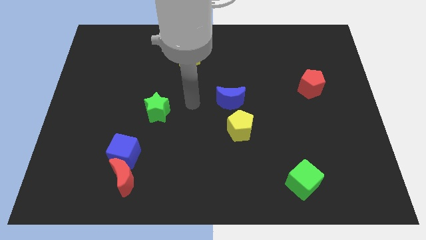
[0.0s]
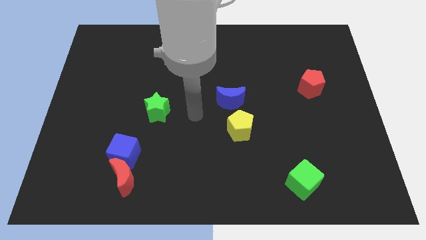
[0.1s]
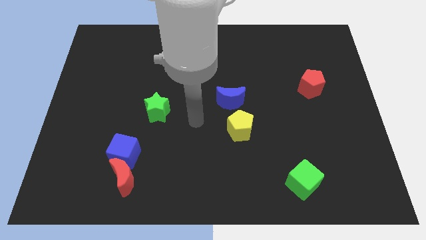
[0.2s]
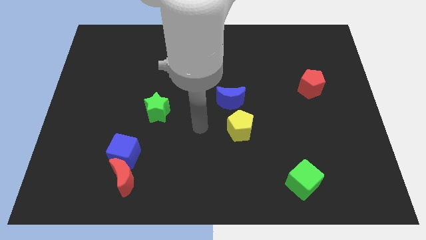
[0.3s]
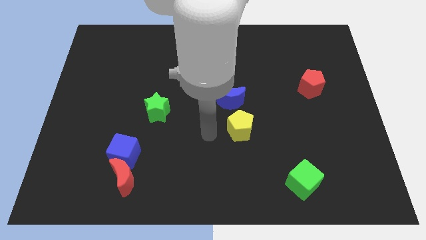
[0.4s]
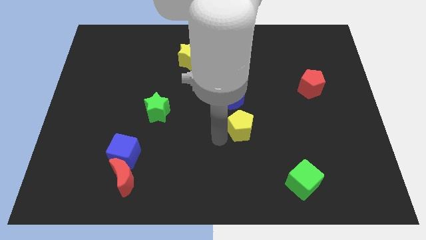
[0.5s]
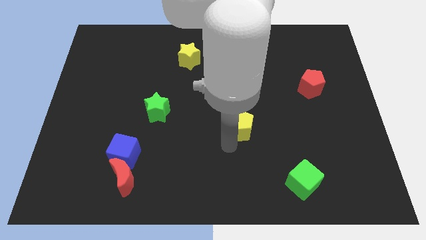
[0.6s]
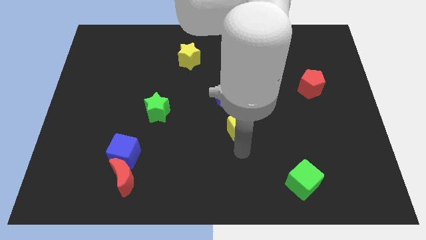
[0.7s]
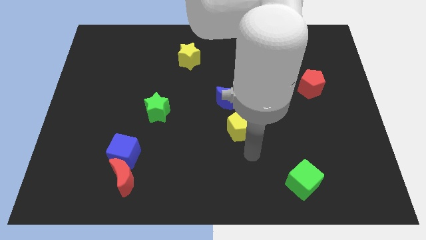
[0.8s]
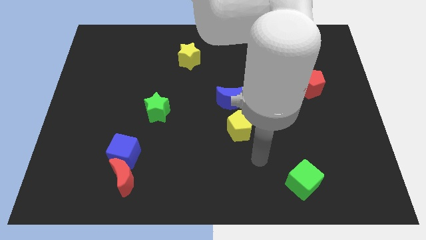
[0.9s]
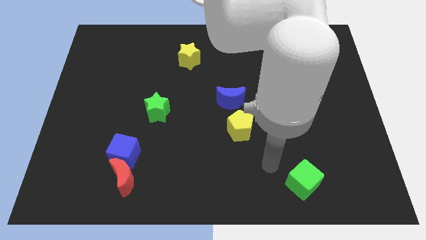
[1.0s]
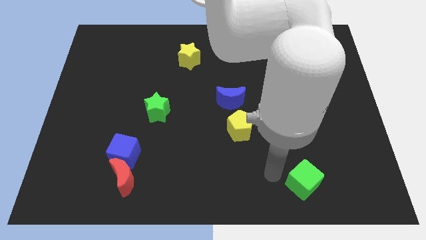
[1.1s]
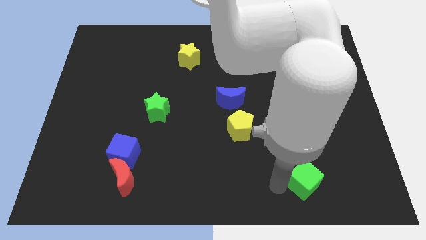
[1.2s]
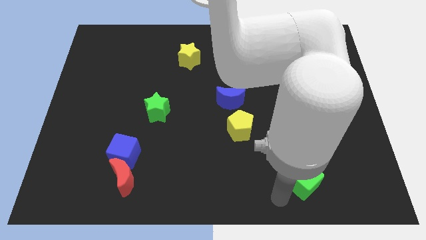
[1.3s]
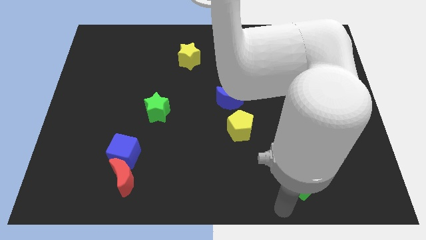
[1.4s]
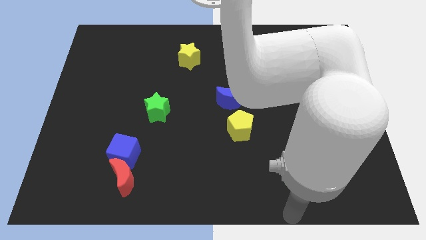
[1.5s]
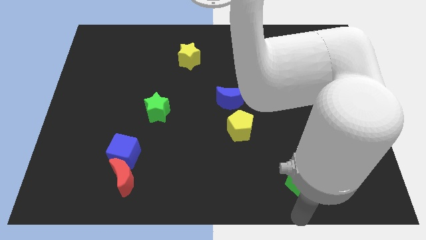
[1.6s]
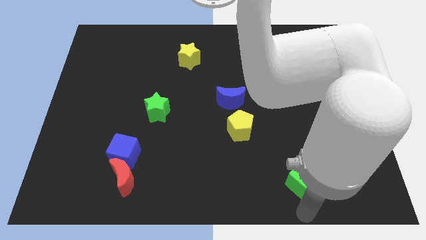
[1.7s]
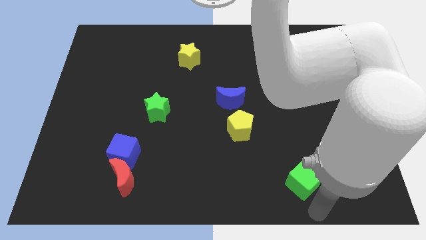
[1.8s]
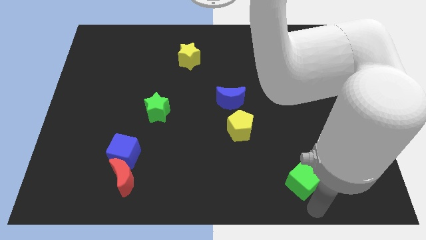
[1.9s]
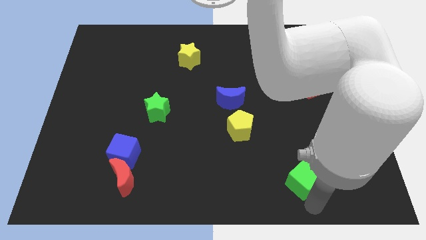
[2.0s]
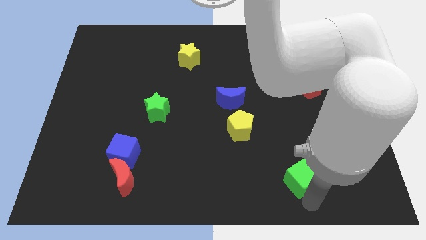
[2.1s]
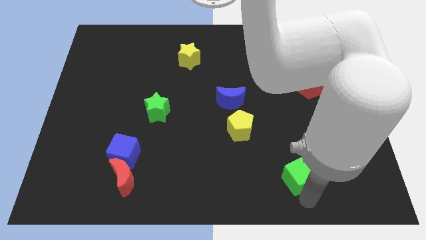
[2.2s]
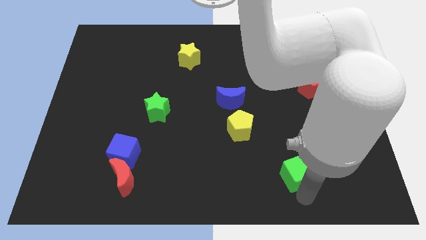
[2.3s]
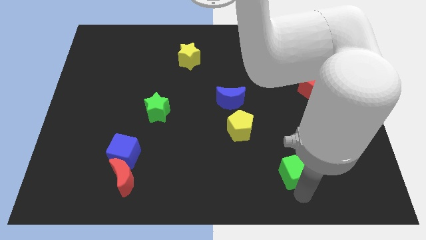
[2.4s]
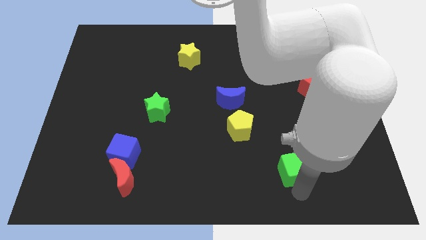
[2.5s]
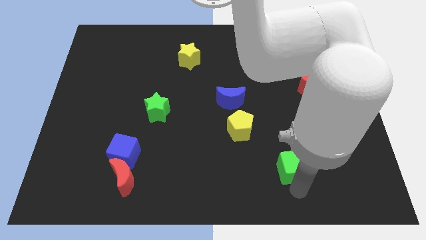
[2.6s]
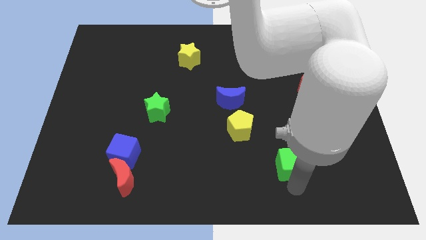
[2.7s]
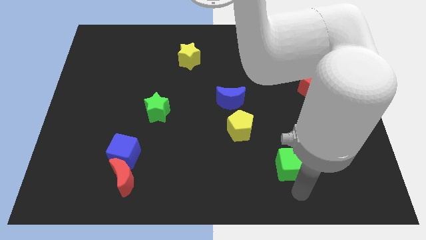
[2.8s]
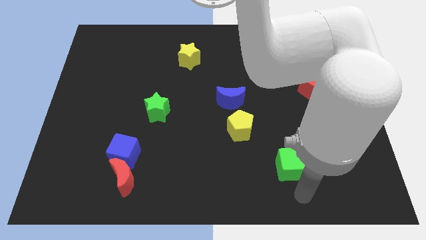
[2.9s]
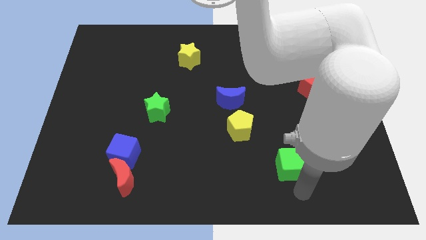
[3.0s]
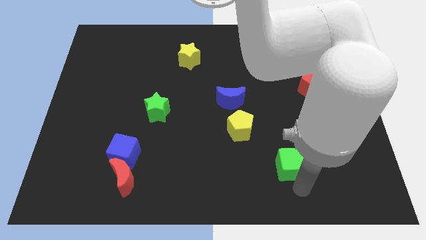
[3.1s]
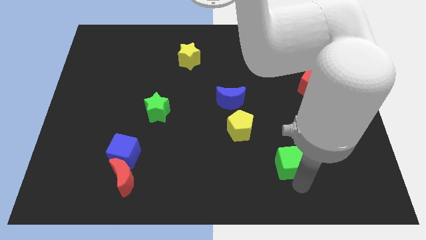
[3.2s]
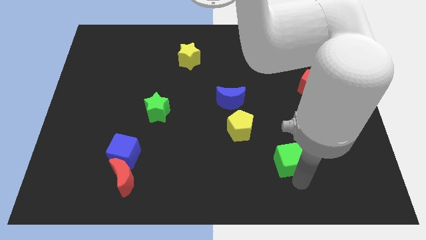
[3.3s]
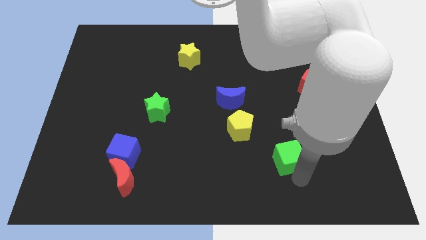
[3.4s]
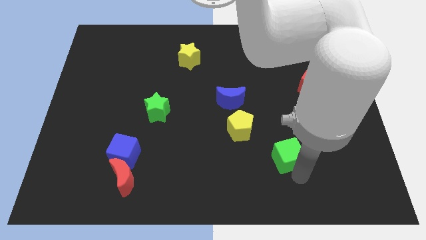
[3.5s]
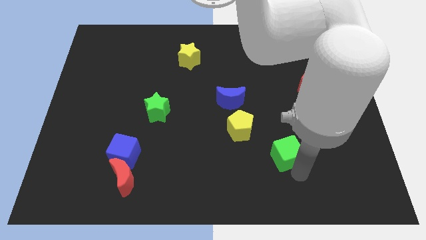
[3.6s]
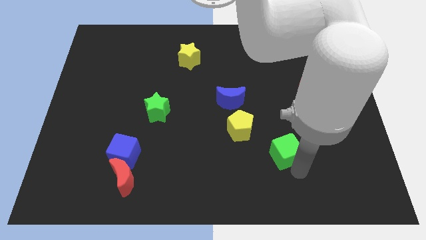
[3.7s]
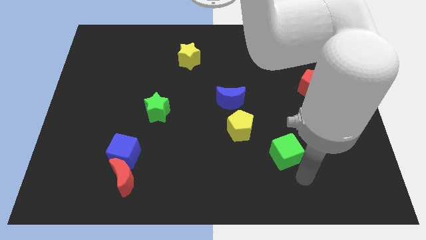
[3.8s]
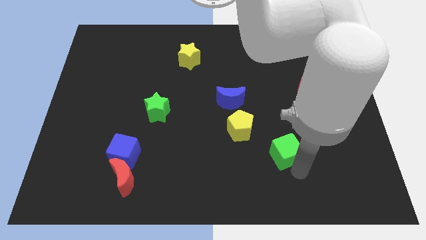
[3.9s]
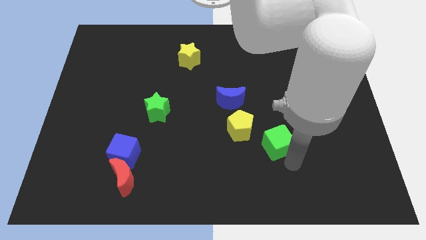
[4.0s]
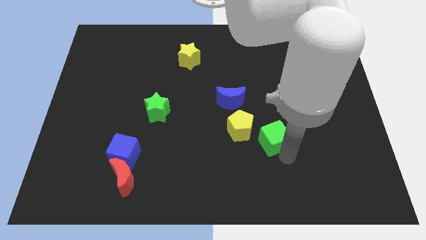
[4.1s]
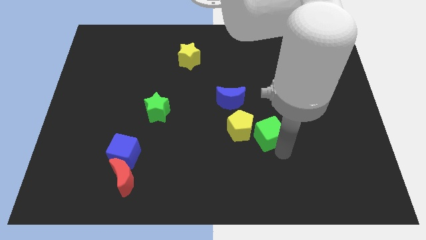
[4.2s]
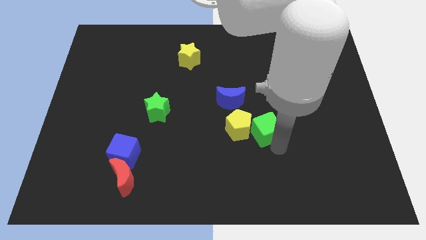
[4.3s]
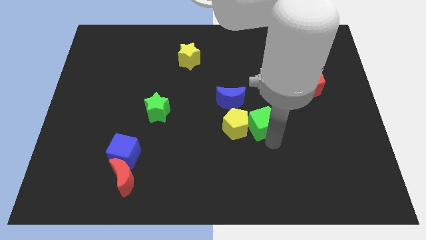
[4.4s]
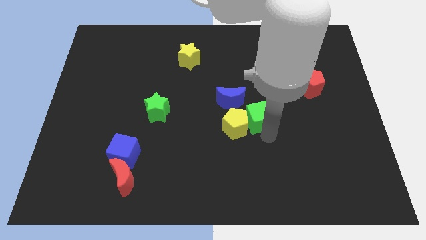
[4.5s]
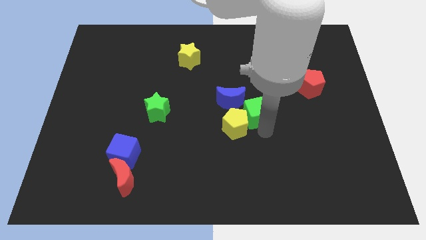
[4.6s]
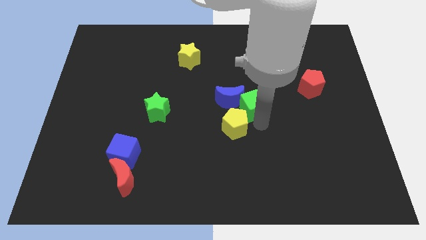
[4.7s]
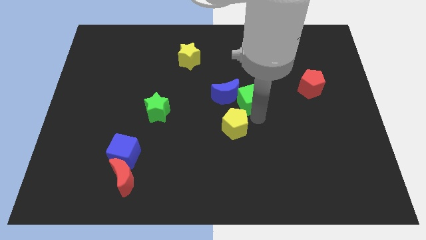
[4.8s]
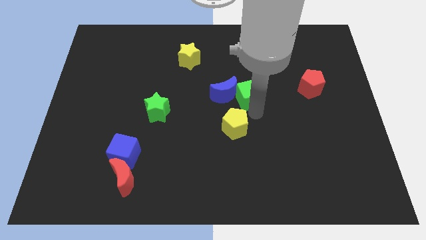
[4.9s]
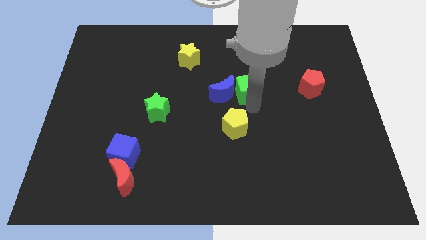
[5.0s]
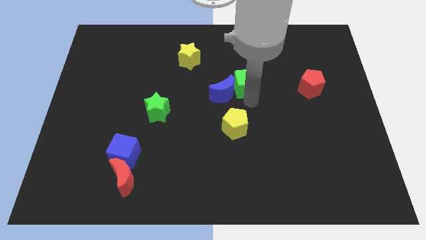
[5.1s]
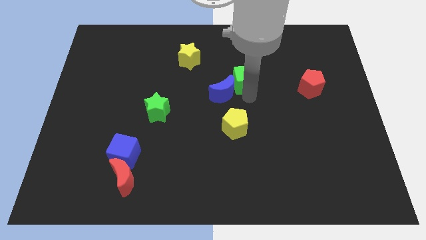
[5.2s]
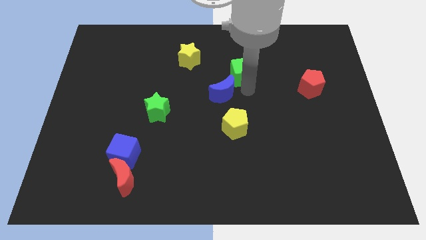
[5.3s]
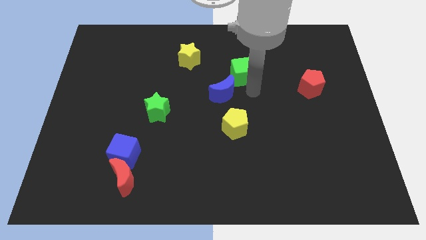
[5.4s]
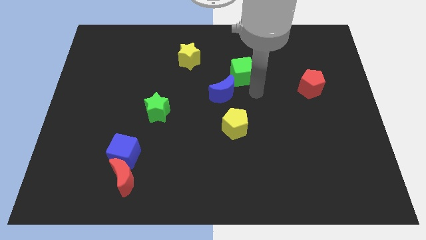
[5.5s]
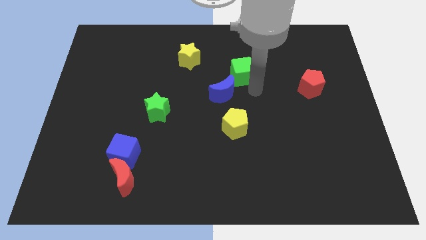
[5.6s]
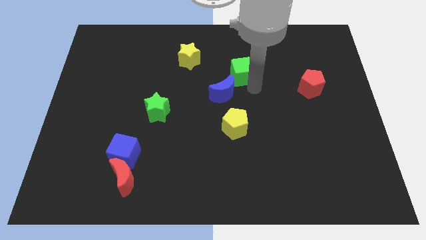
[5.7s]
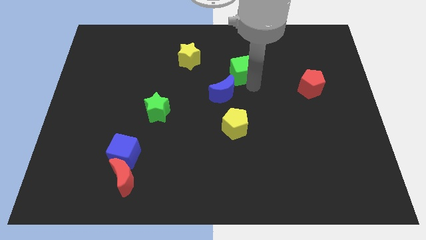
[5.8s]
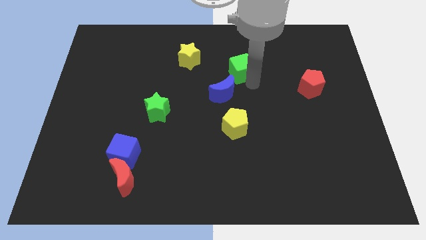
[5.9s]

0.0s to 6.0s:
push the green cube to the right side of the yellow star

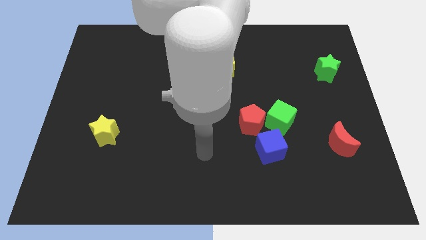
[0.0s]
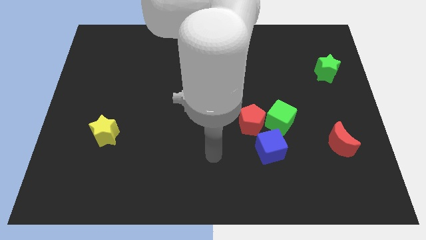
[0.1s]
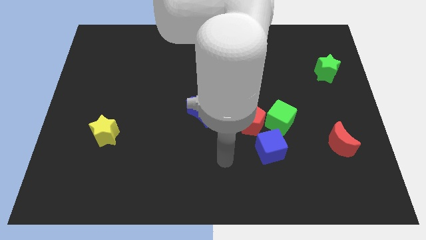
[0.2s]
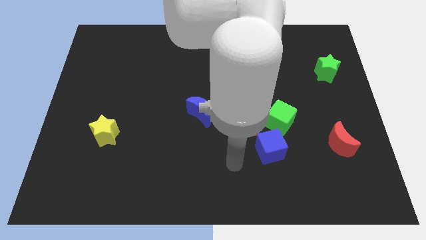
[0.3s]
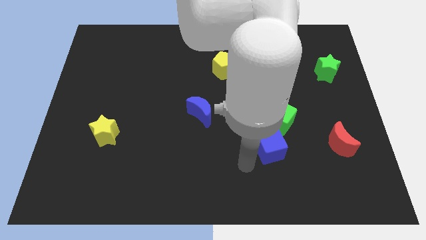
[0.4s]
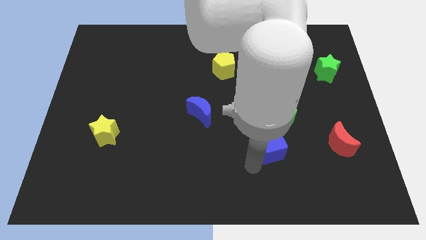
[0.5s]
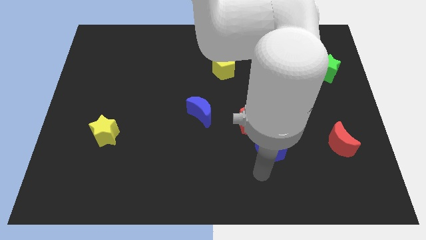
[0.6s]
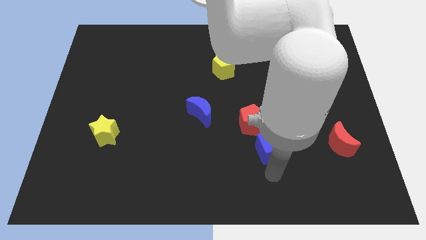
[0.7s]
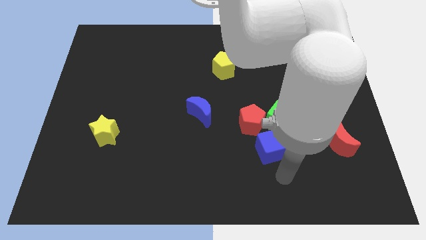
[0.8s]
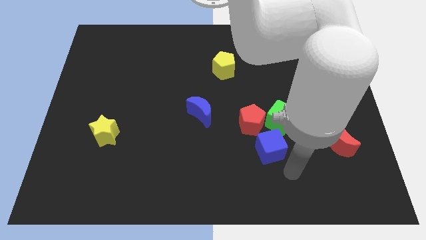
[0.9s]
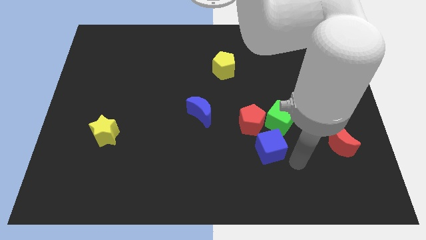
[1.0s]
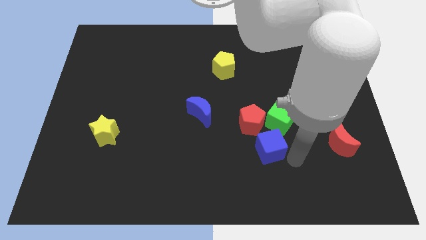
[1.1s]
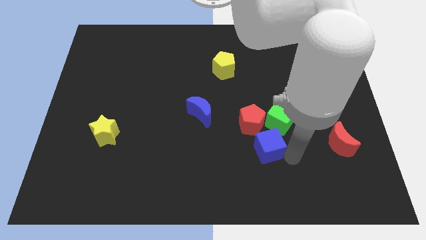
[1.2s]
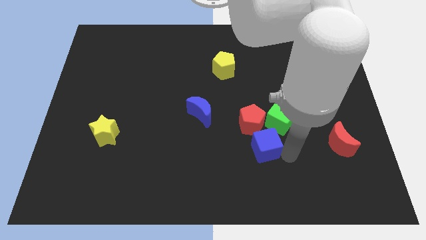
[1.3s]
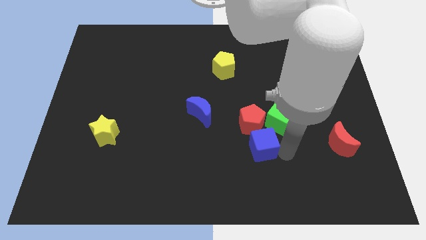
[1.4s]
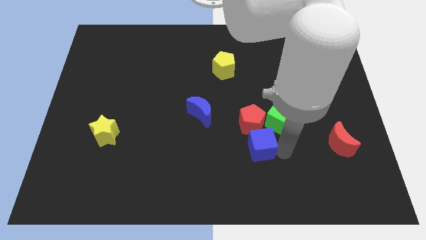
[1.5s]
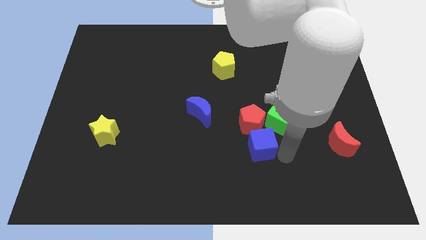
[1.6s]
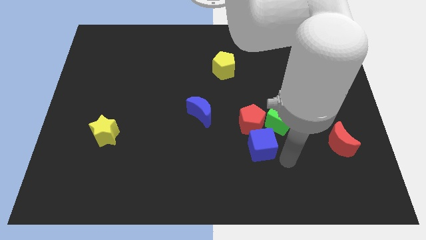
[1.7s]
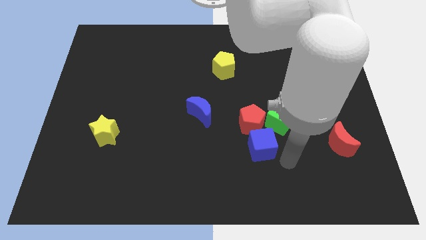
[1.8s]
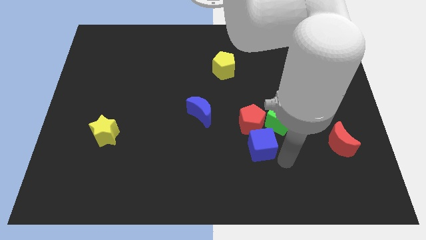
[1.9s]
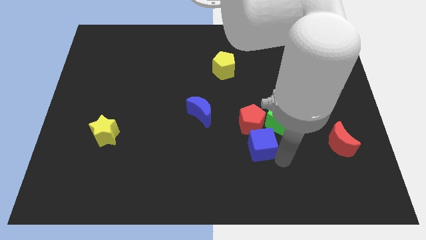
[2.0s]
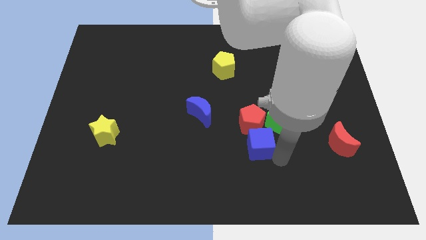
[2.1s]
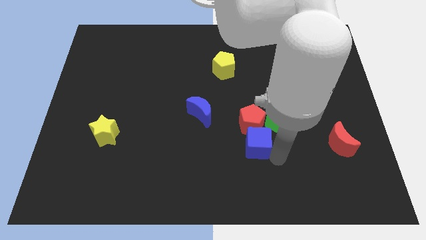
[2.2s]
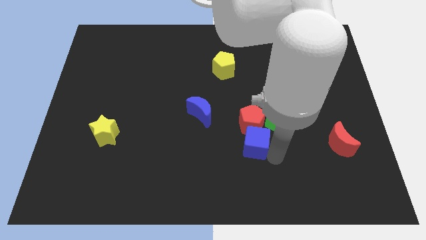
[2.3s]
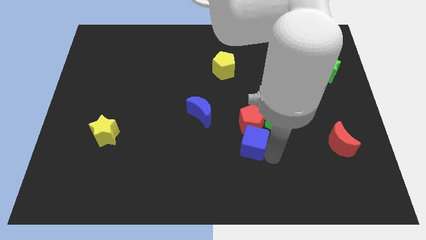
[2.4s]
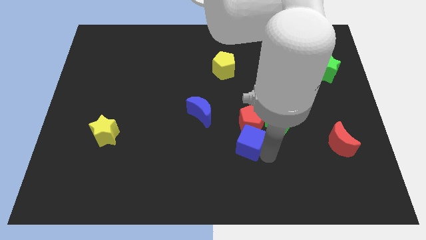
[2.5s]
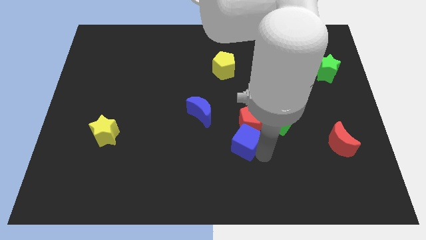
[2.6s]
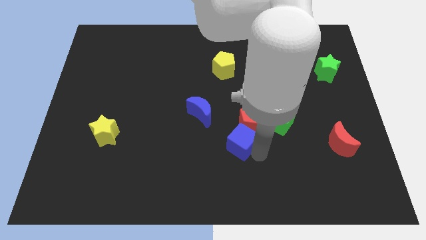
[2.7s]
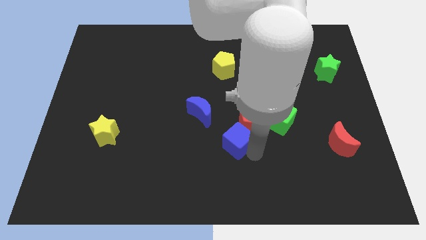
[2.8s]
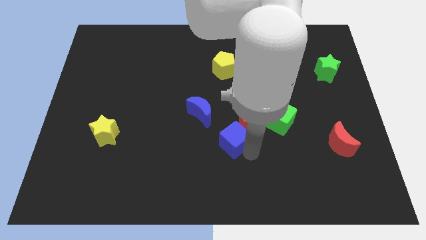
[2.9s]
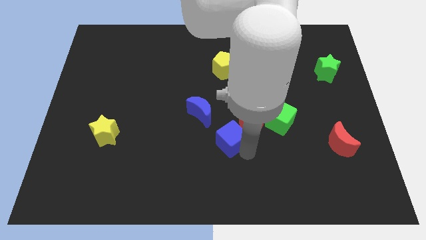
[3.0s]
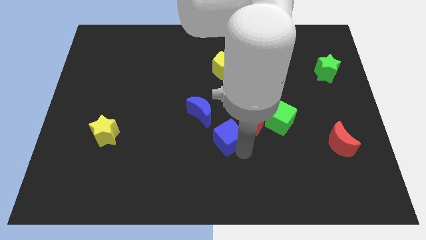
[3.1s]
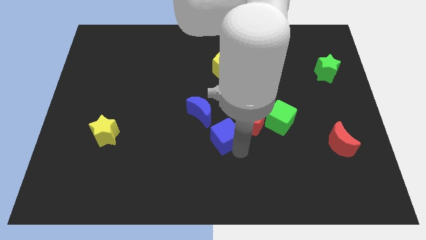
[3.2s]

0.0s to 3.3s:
put the blue cube to the left side of the green cube
